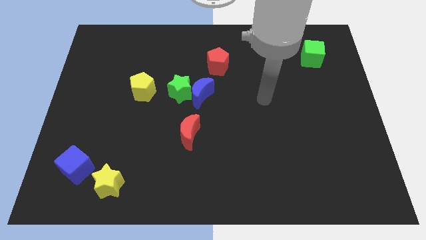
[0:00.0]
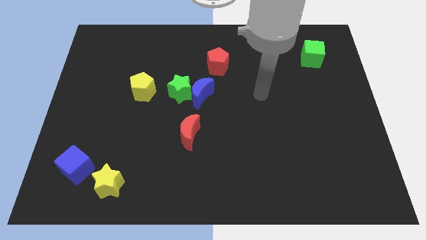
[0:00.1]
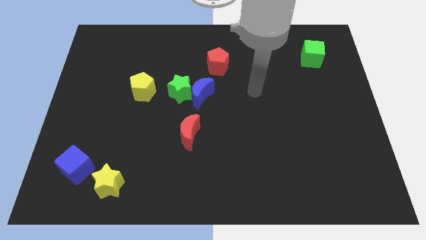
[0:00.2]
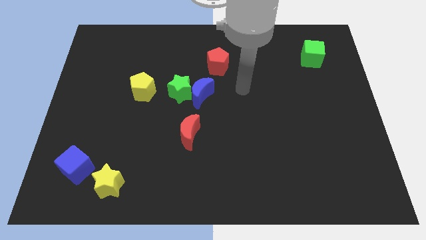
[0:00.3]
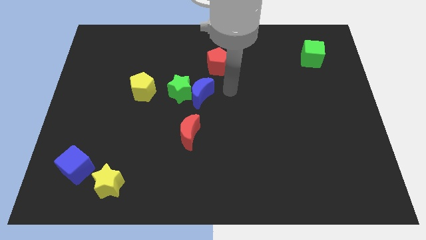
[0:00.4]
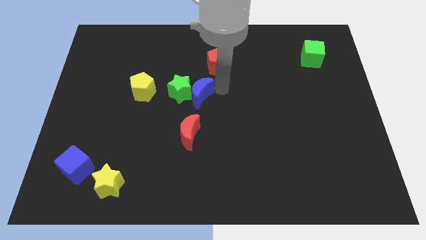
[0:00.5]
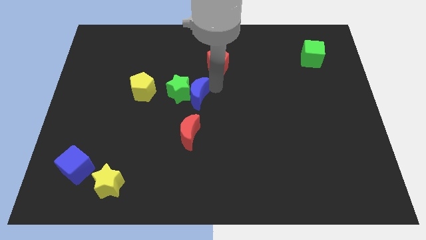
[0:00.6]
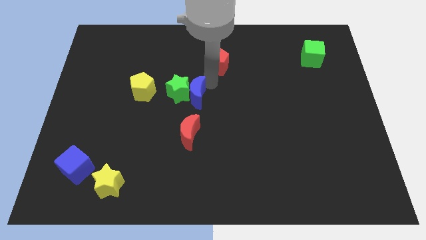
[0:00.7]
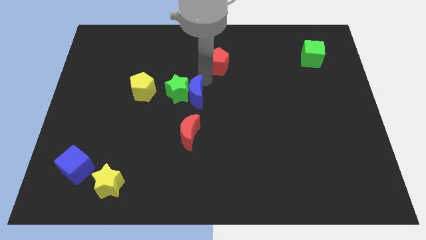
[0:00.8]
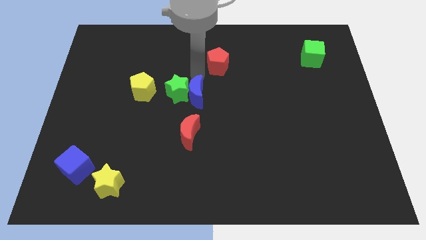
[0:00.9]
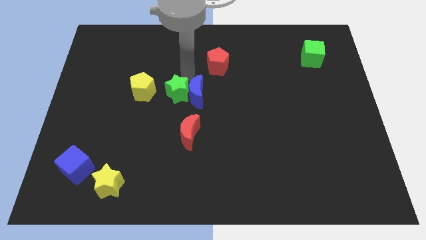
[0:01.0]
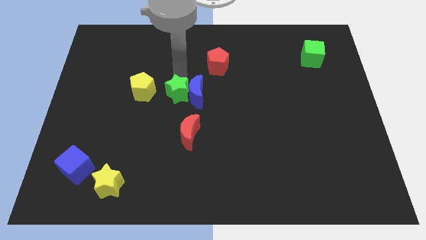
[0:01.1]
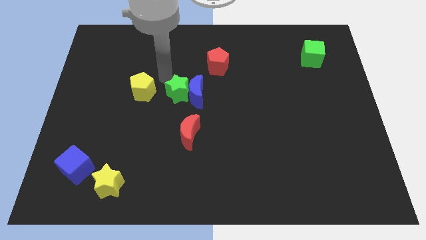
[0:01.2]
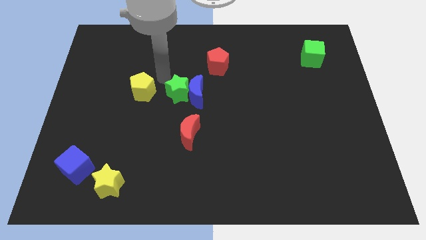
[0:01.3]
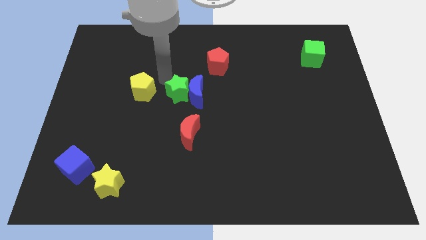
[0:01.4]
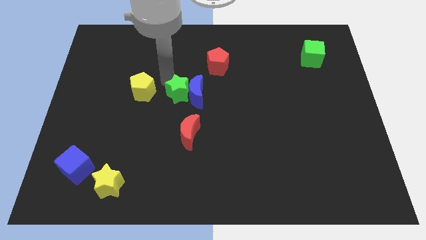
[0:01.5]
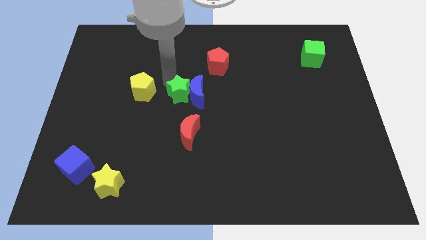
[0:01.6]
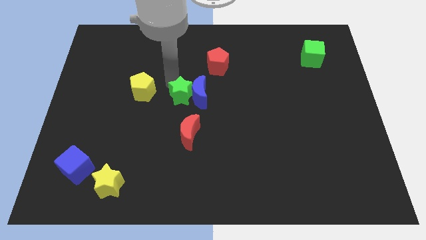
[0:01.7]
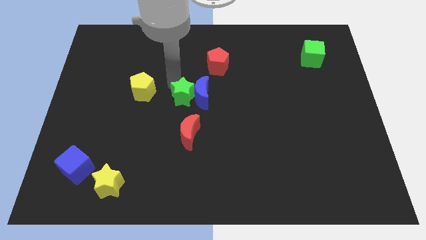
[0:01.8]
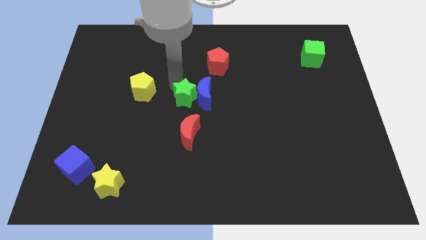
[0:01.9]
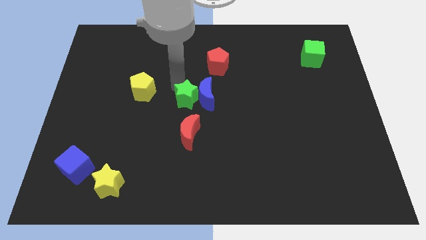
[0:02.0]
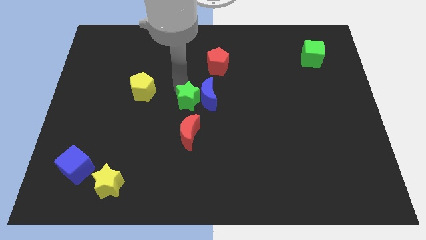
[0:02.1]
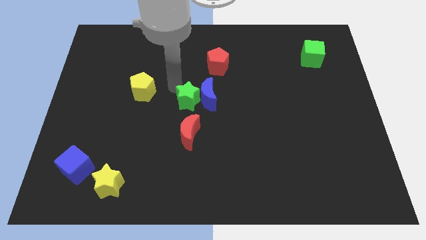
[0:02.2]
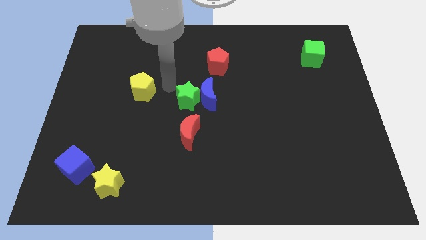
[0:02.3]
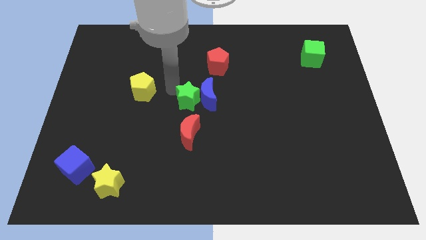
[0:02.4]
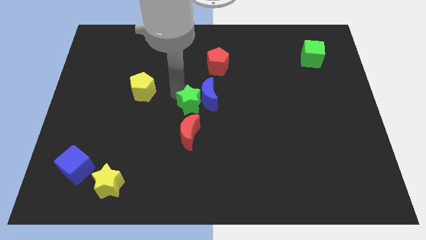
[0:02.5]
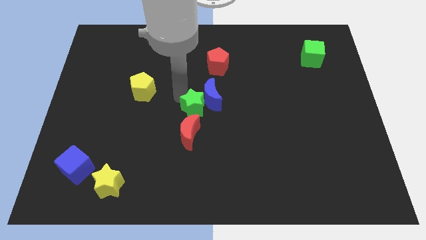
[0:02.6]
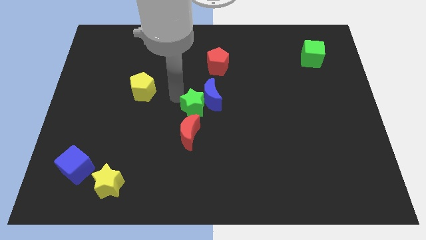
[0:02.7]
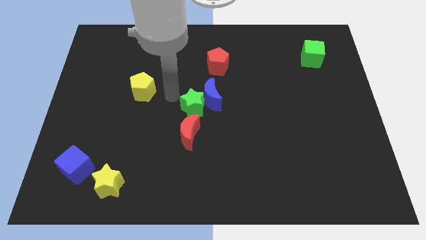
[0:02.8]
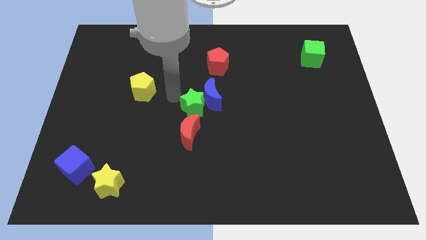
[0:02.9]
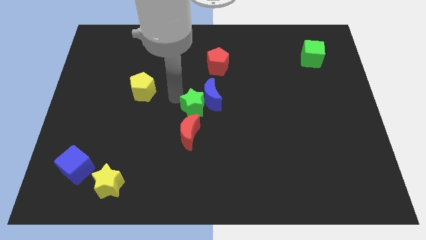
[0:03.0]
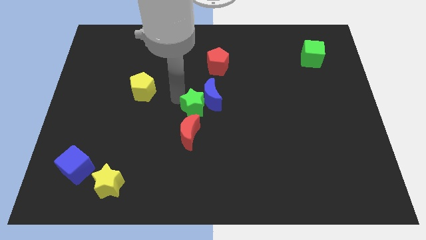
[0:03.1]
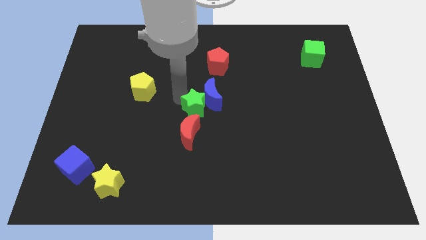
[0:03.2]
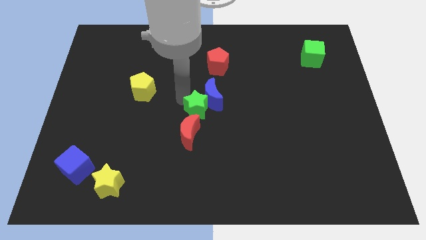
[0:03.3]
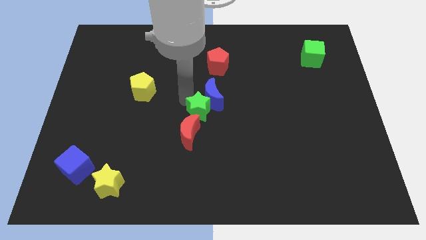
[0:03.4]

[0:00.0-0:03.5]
slide the green star a little down and to the right diagonally

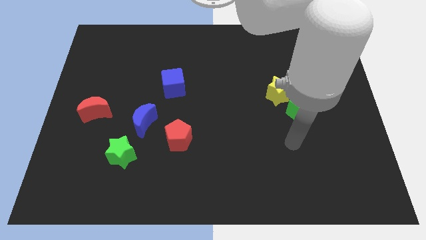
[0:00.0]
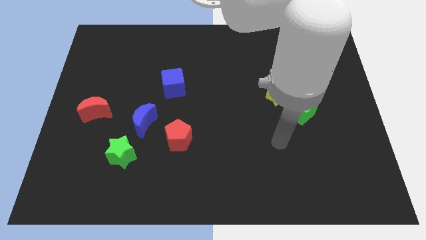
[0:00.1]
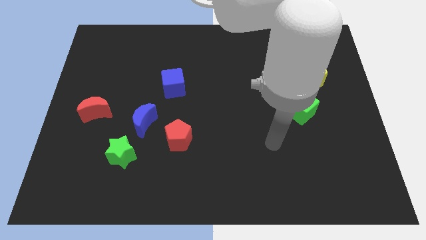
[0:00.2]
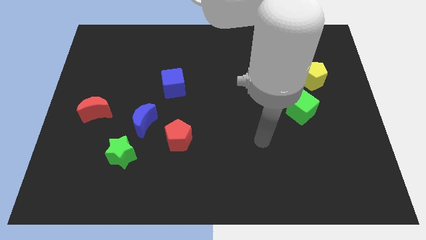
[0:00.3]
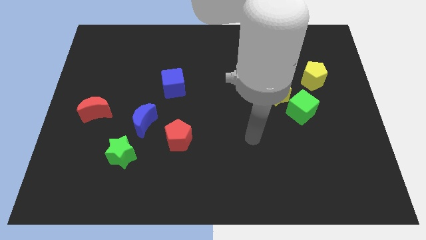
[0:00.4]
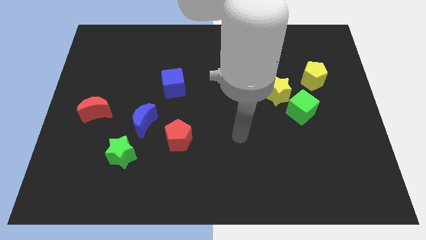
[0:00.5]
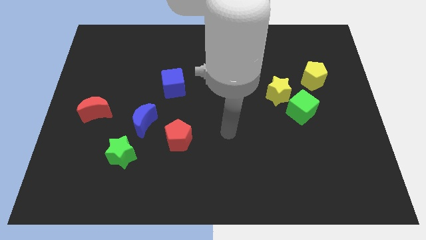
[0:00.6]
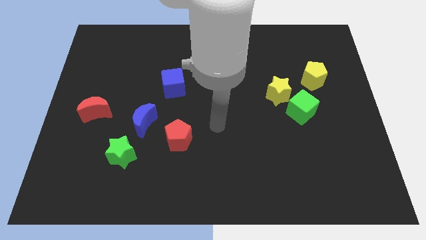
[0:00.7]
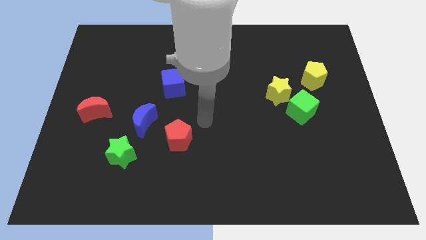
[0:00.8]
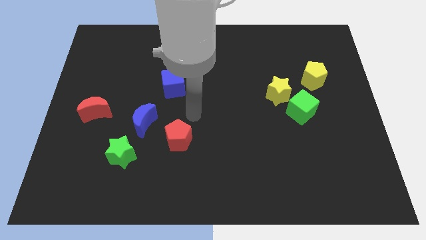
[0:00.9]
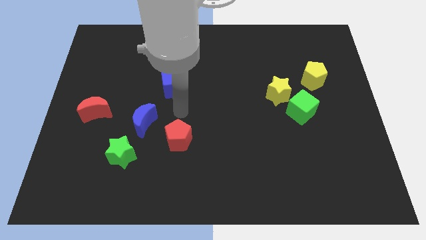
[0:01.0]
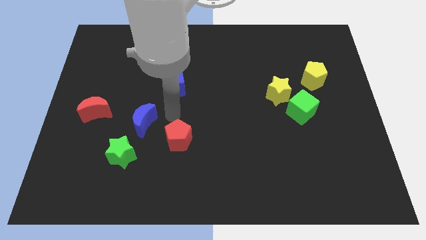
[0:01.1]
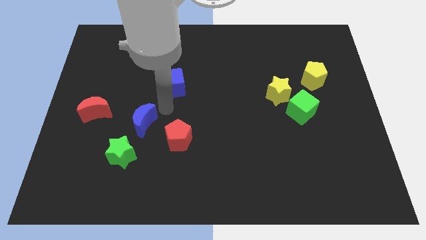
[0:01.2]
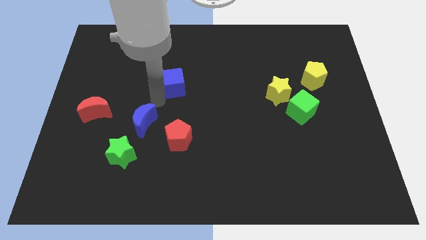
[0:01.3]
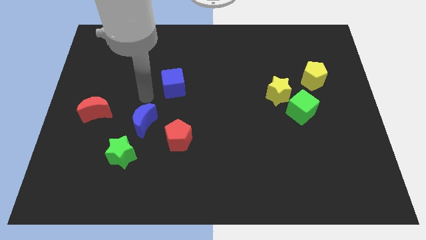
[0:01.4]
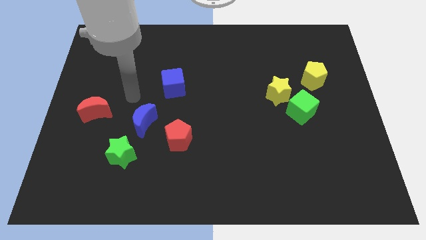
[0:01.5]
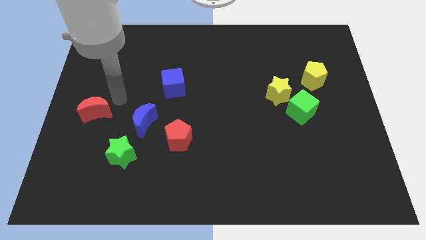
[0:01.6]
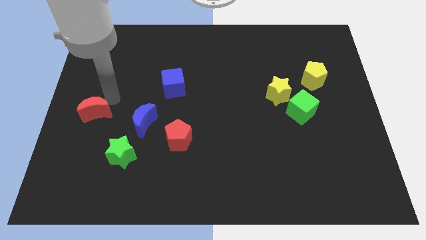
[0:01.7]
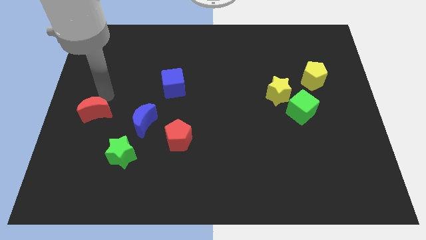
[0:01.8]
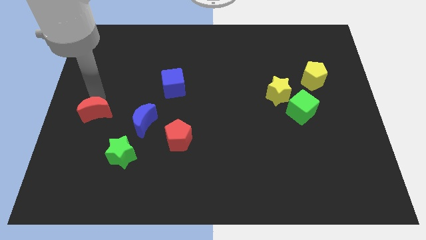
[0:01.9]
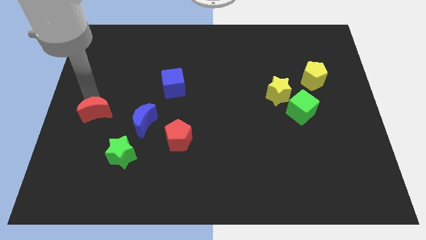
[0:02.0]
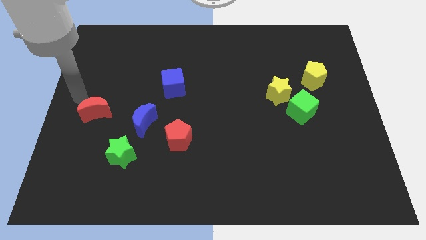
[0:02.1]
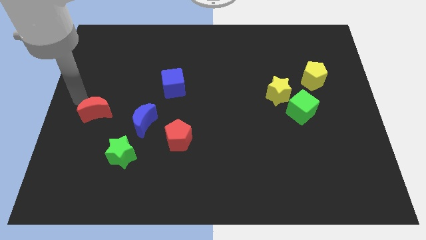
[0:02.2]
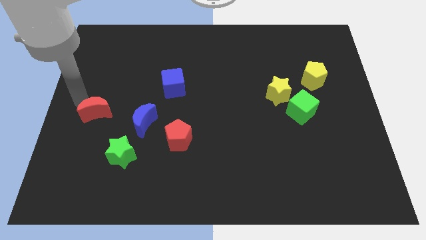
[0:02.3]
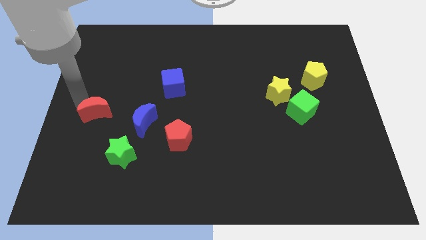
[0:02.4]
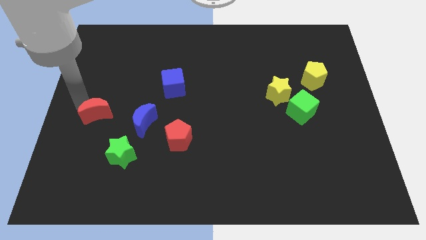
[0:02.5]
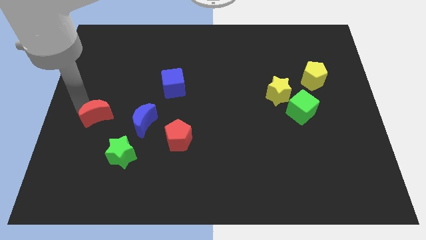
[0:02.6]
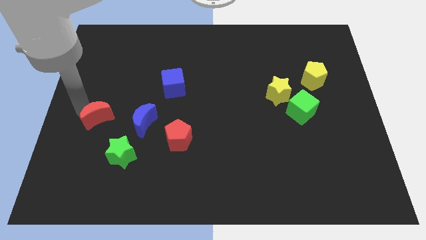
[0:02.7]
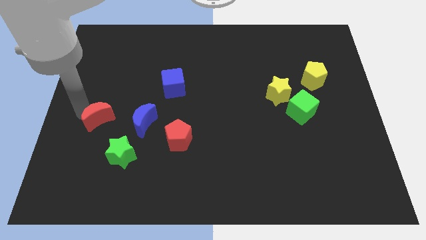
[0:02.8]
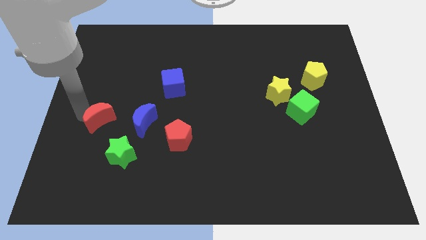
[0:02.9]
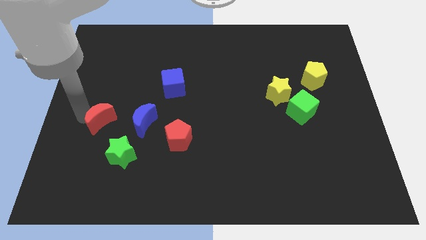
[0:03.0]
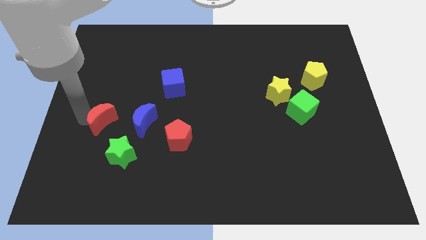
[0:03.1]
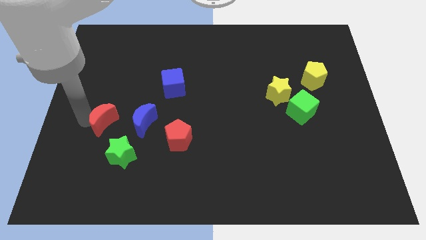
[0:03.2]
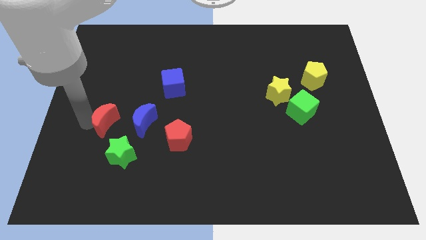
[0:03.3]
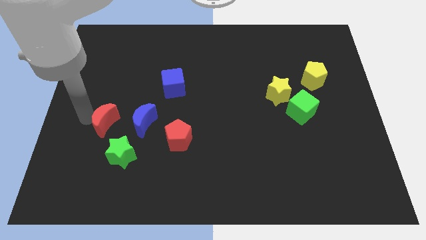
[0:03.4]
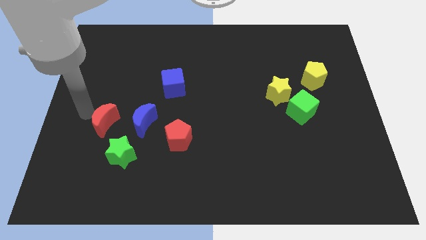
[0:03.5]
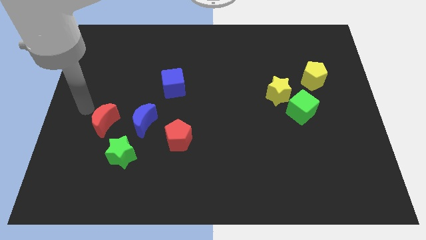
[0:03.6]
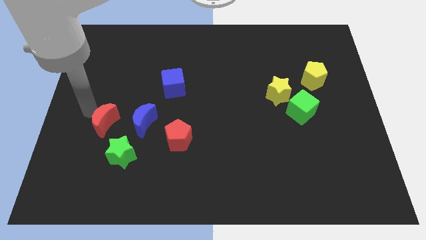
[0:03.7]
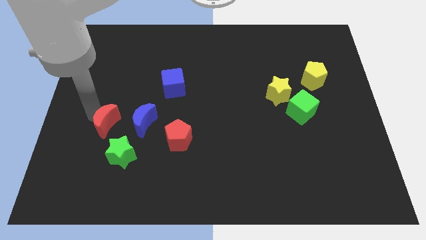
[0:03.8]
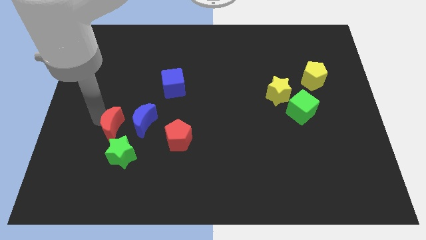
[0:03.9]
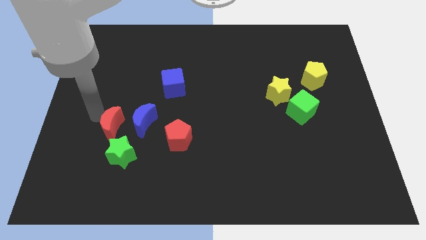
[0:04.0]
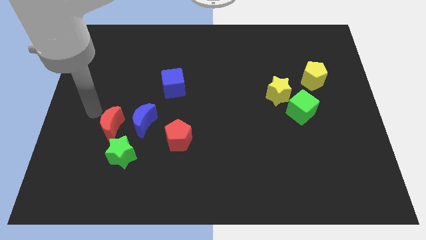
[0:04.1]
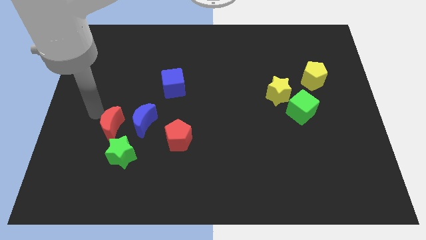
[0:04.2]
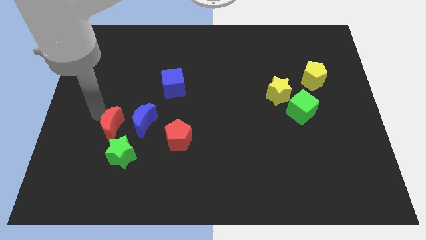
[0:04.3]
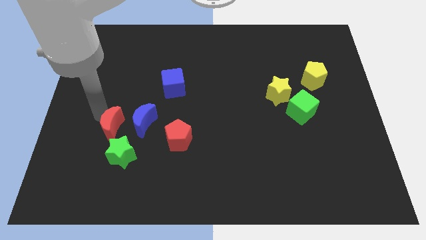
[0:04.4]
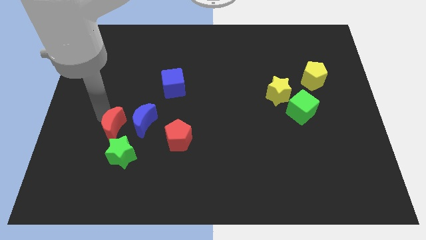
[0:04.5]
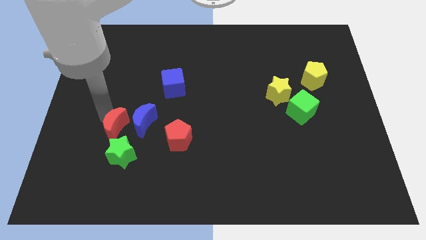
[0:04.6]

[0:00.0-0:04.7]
slide the red moon slightly diagonally downwards and to the right

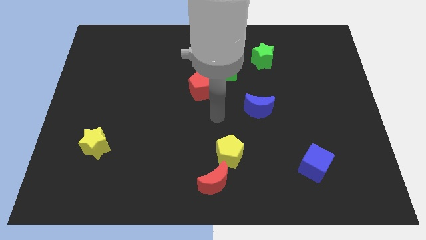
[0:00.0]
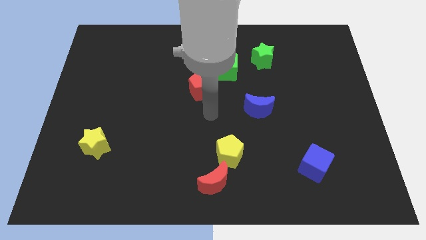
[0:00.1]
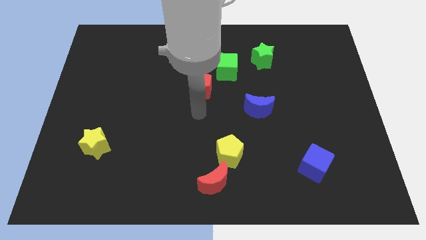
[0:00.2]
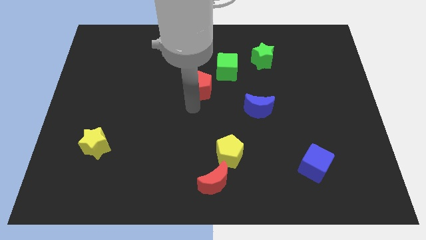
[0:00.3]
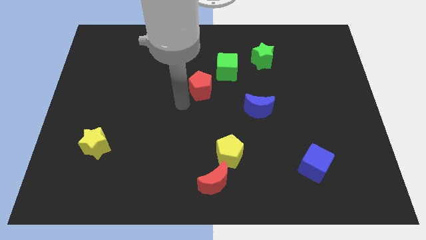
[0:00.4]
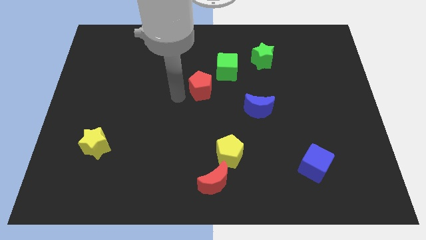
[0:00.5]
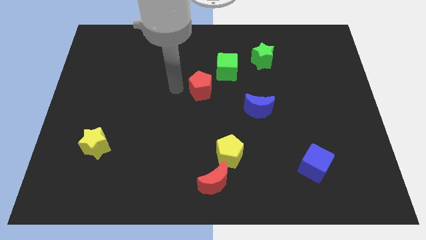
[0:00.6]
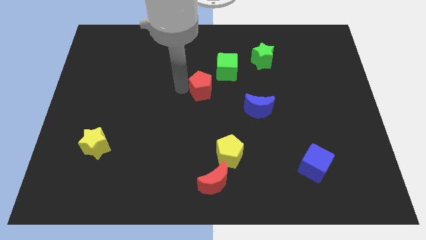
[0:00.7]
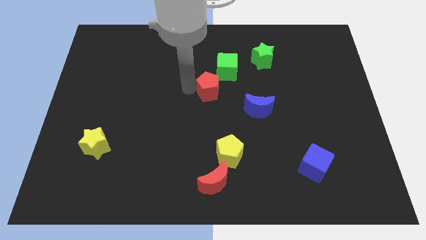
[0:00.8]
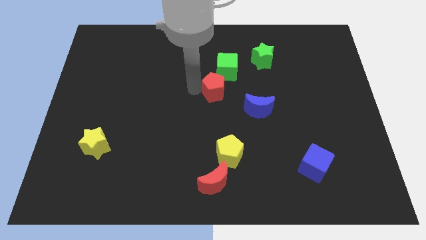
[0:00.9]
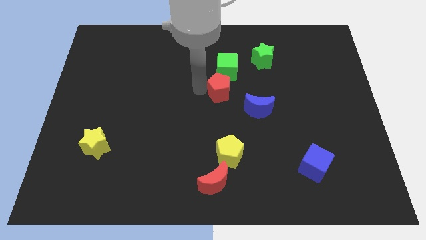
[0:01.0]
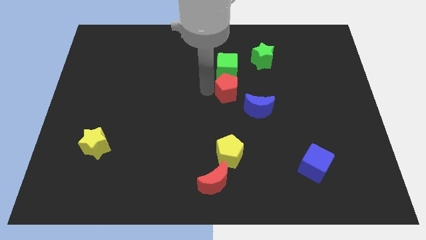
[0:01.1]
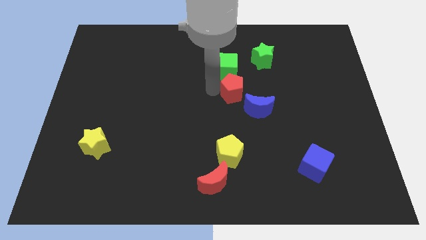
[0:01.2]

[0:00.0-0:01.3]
move the red pentagon right a bit
